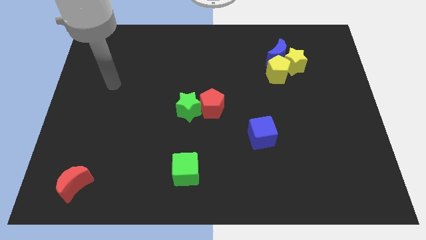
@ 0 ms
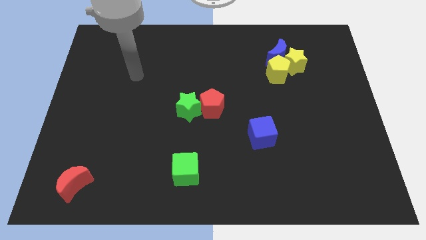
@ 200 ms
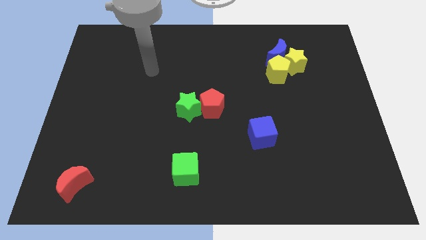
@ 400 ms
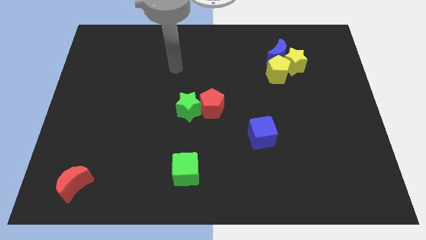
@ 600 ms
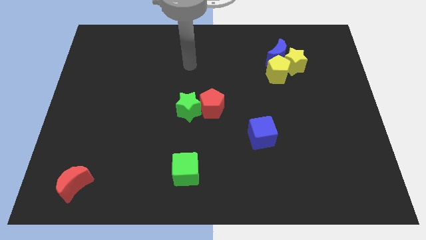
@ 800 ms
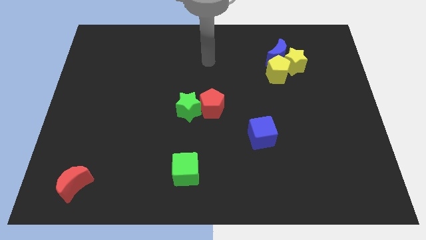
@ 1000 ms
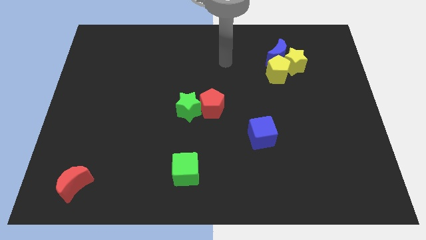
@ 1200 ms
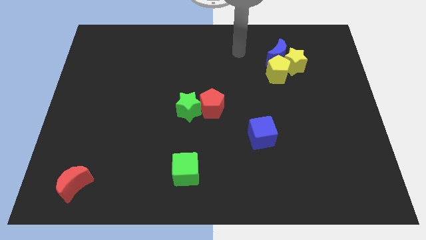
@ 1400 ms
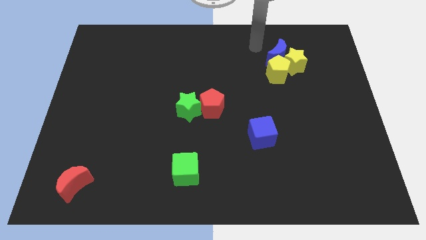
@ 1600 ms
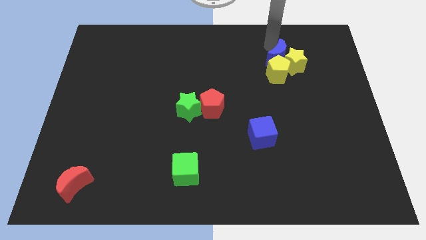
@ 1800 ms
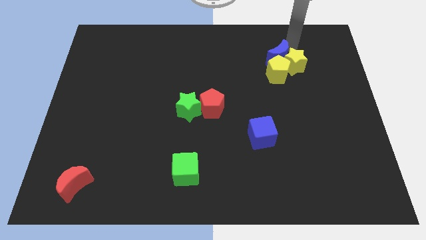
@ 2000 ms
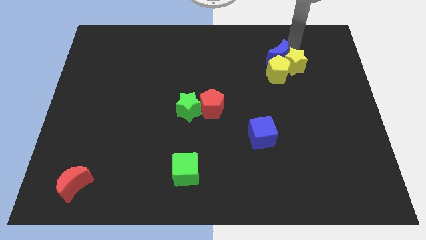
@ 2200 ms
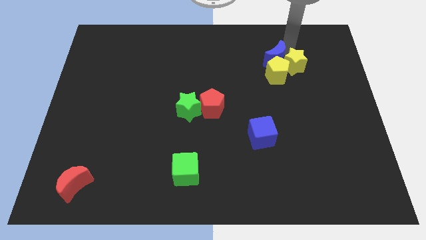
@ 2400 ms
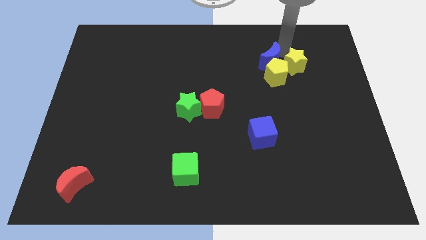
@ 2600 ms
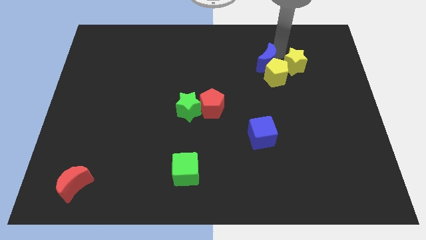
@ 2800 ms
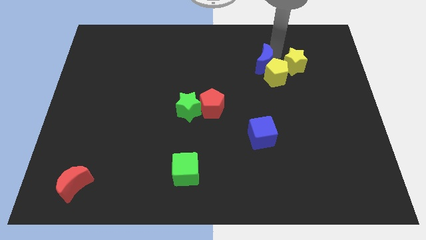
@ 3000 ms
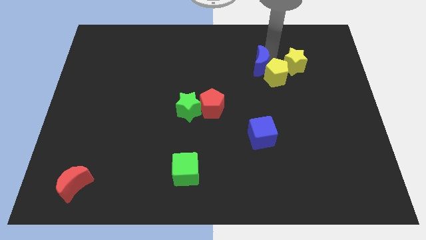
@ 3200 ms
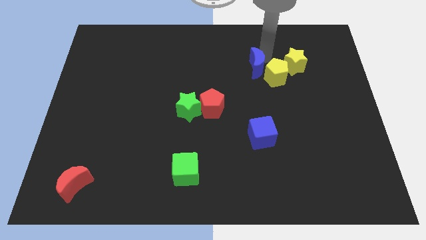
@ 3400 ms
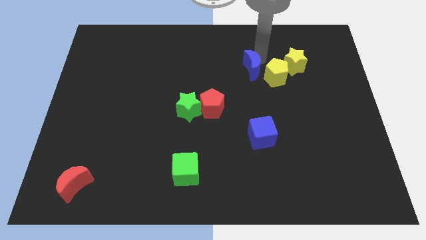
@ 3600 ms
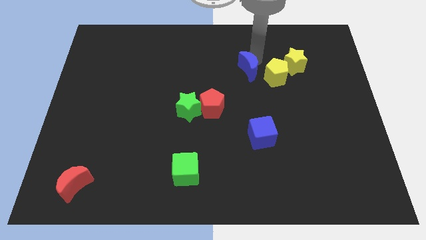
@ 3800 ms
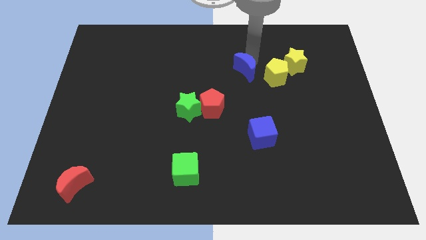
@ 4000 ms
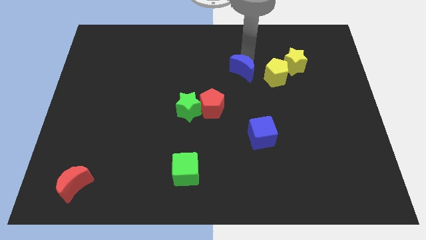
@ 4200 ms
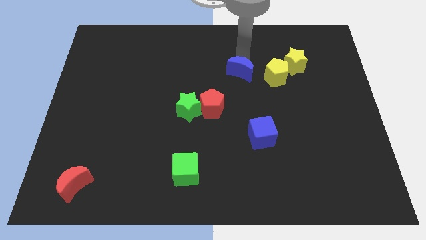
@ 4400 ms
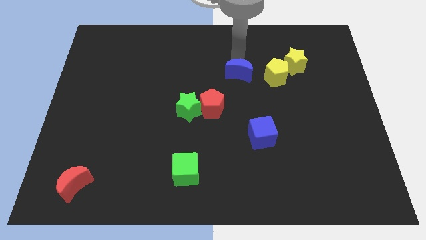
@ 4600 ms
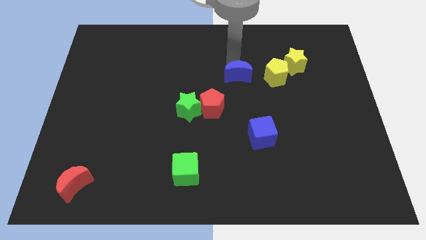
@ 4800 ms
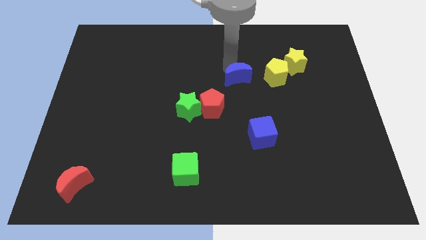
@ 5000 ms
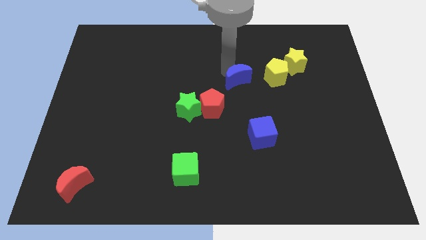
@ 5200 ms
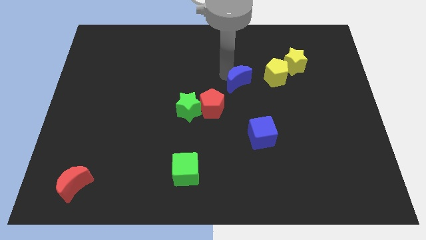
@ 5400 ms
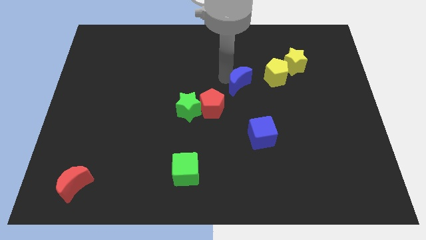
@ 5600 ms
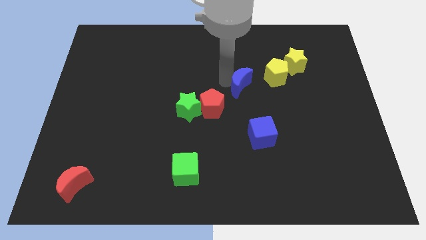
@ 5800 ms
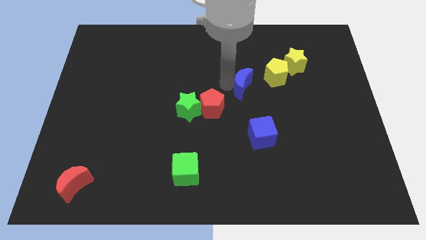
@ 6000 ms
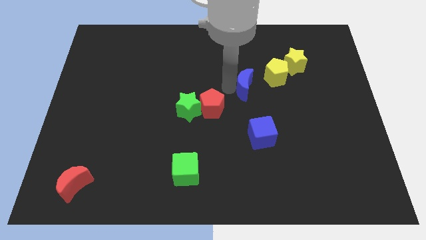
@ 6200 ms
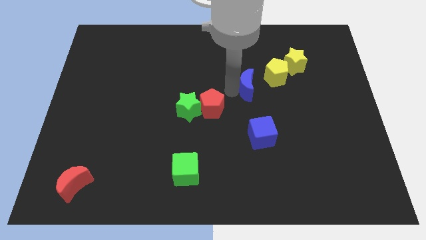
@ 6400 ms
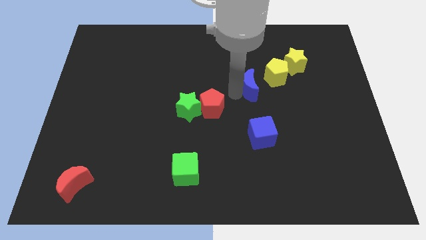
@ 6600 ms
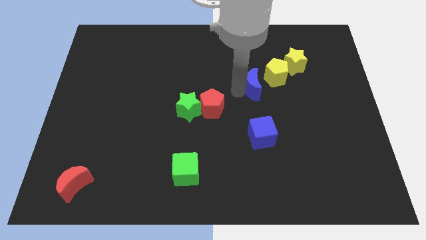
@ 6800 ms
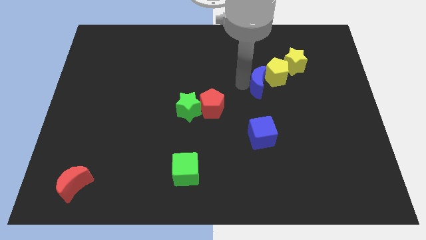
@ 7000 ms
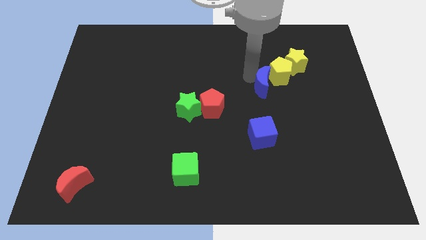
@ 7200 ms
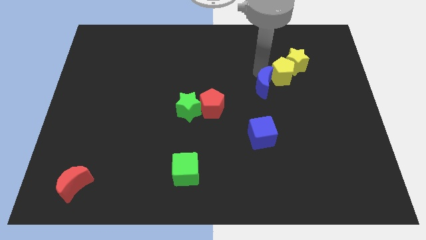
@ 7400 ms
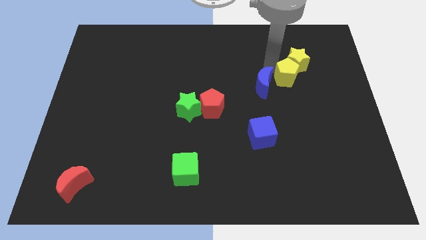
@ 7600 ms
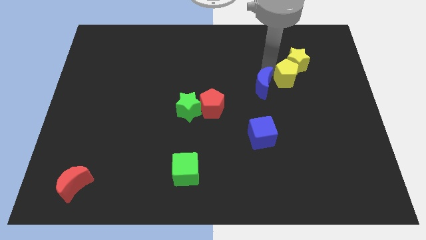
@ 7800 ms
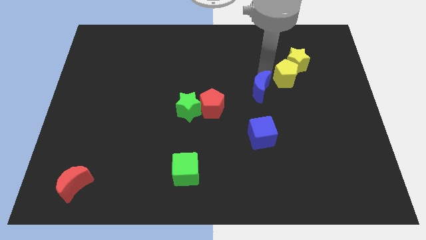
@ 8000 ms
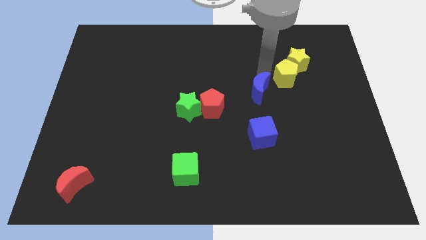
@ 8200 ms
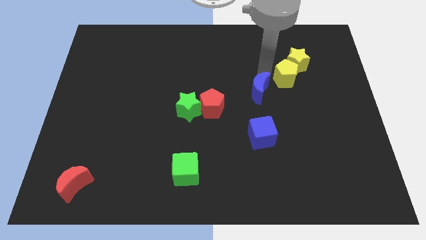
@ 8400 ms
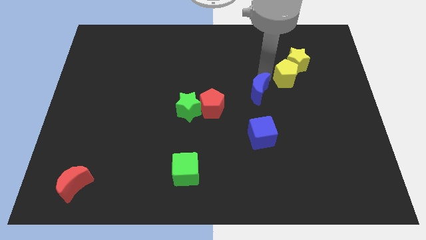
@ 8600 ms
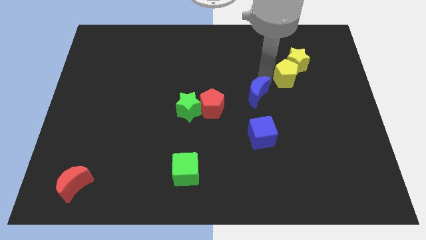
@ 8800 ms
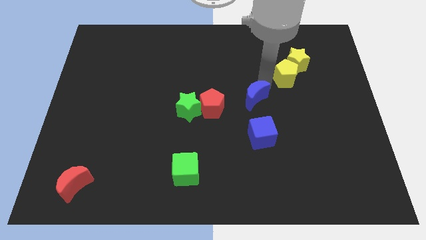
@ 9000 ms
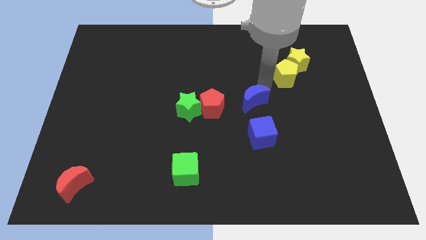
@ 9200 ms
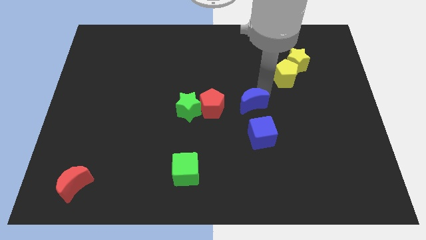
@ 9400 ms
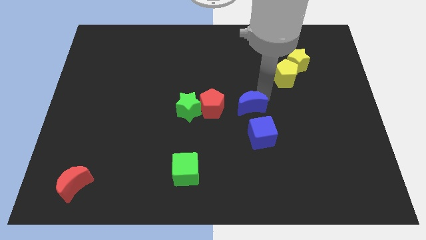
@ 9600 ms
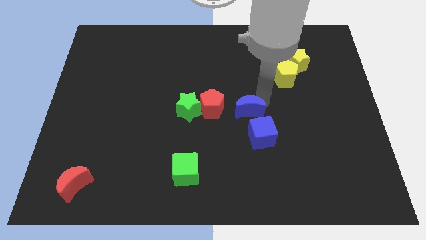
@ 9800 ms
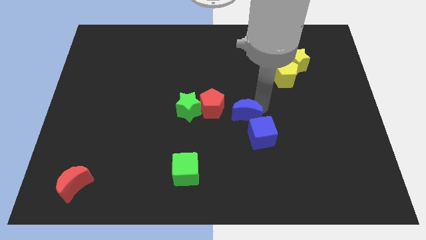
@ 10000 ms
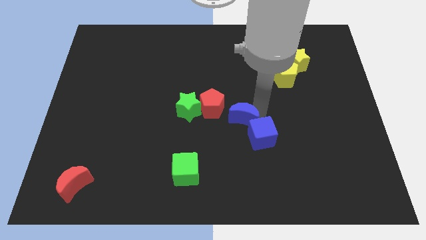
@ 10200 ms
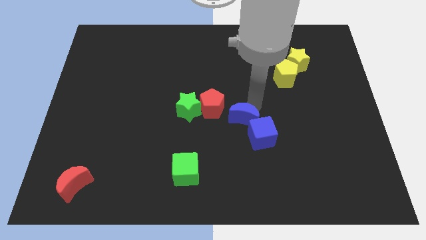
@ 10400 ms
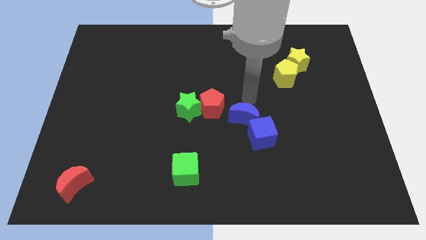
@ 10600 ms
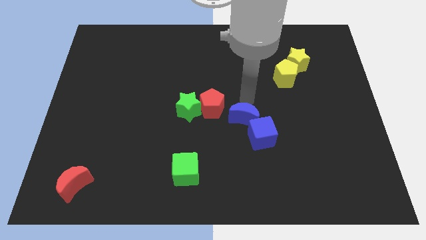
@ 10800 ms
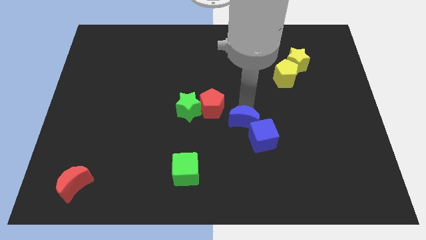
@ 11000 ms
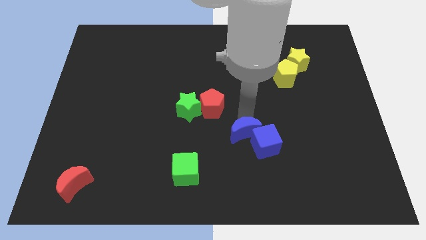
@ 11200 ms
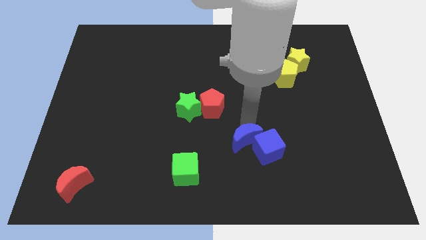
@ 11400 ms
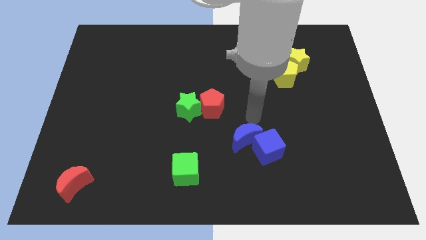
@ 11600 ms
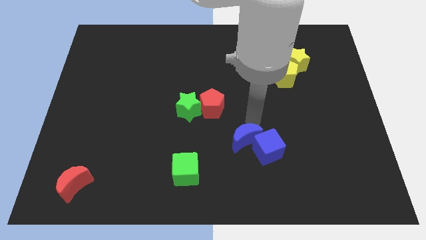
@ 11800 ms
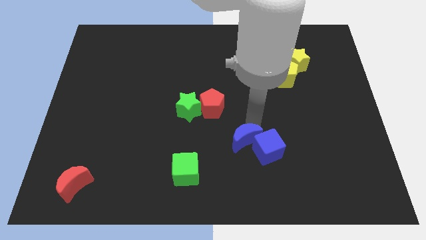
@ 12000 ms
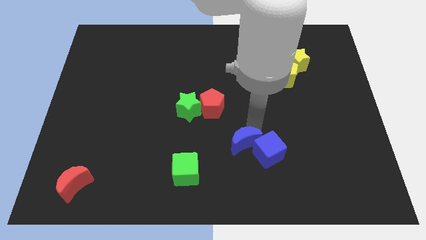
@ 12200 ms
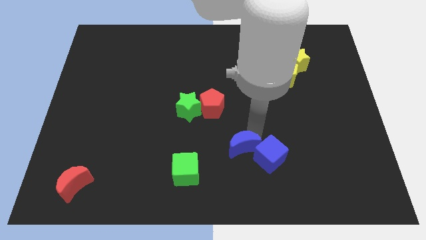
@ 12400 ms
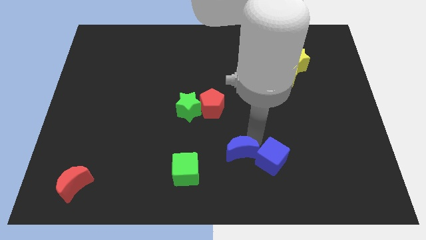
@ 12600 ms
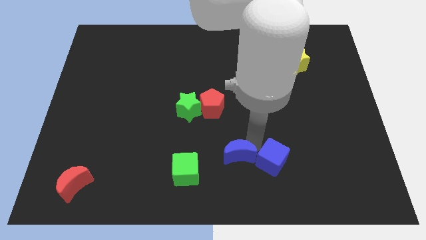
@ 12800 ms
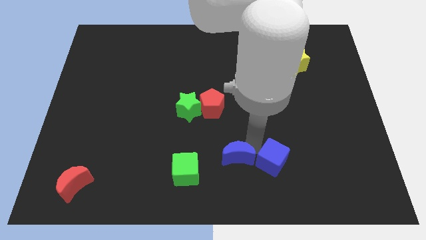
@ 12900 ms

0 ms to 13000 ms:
move the blue moon to the bottom
